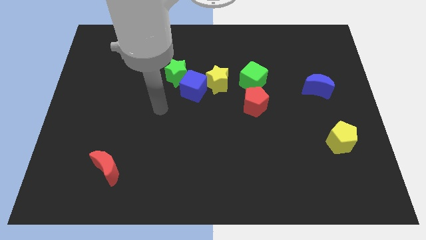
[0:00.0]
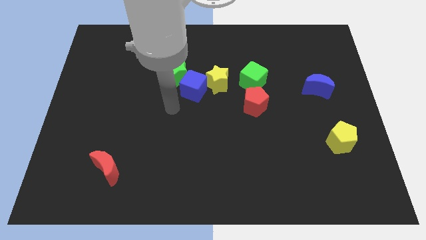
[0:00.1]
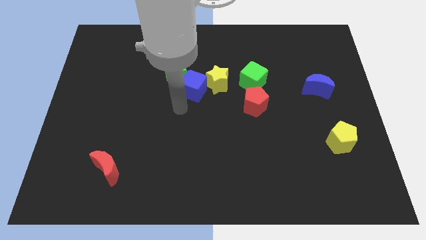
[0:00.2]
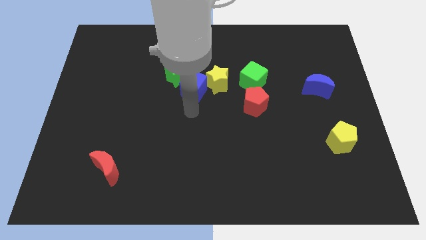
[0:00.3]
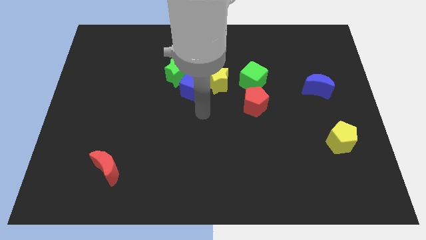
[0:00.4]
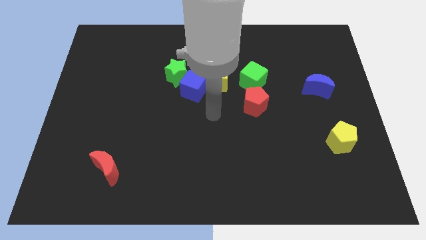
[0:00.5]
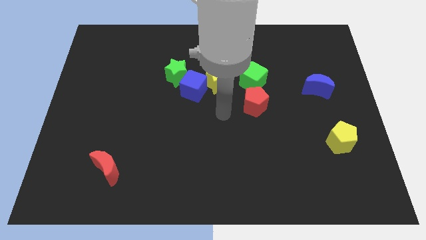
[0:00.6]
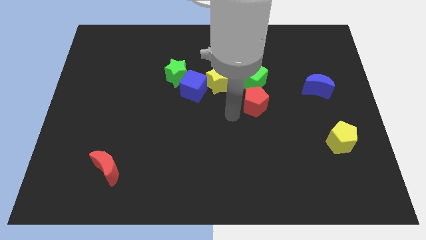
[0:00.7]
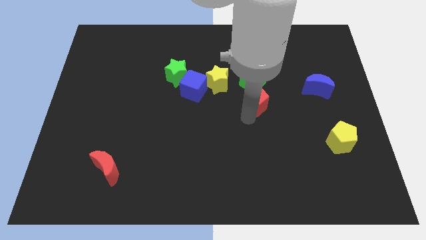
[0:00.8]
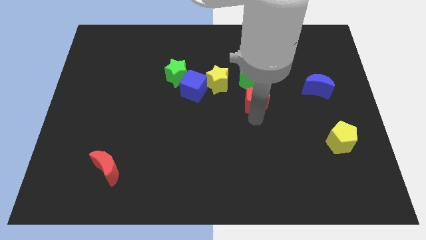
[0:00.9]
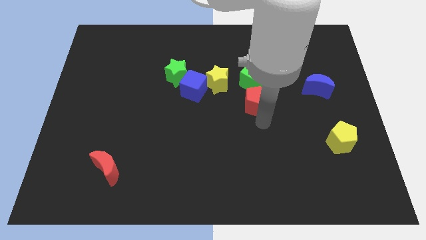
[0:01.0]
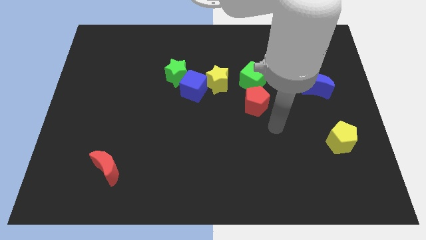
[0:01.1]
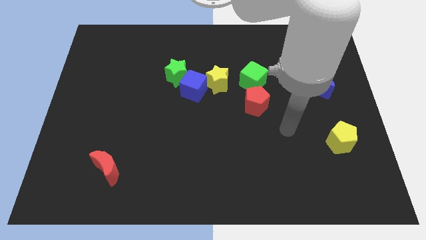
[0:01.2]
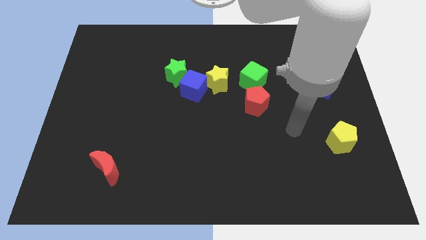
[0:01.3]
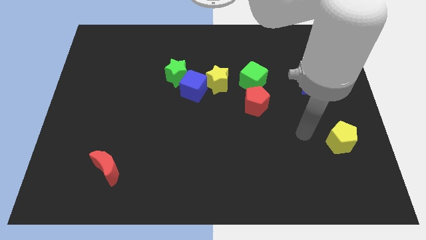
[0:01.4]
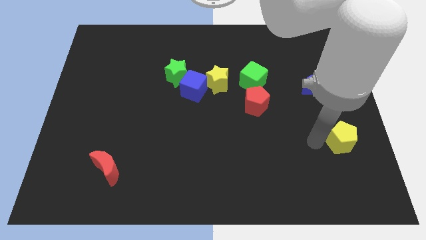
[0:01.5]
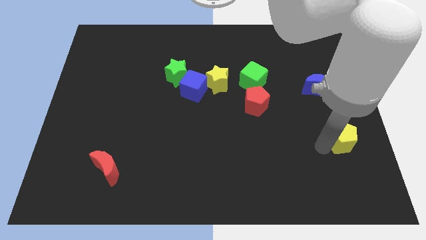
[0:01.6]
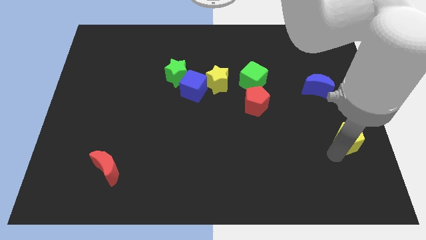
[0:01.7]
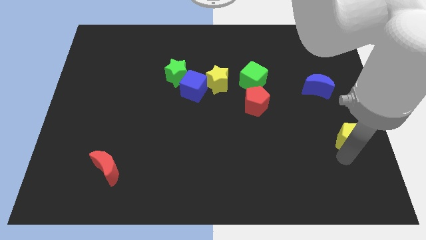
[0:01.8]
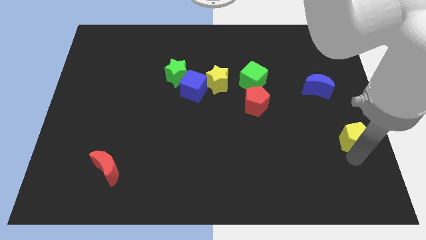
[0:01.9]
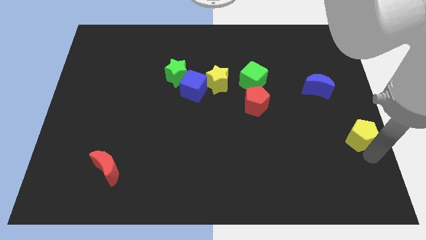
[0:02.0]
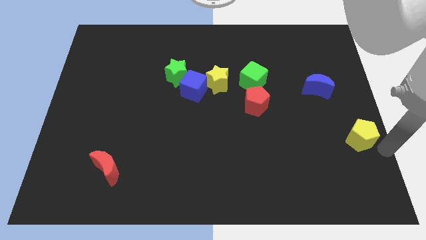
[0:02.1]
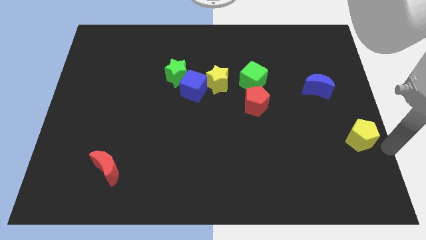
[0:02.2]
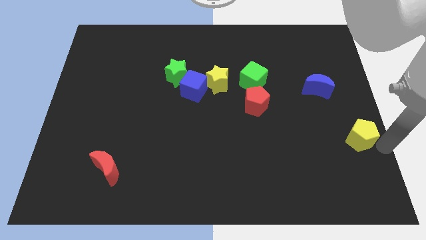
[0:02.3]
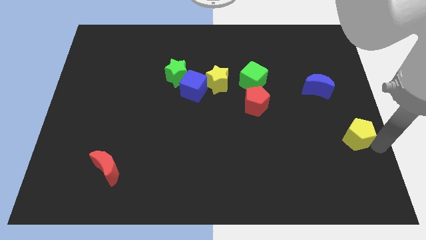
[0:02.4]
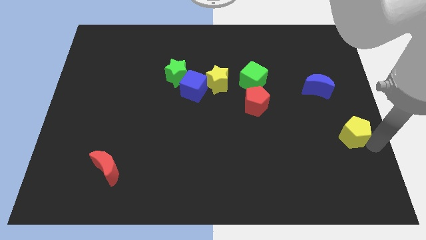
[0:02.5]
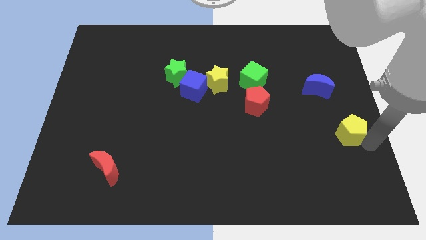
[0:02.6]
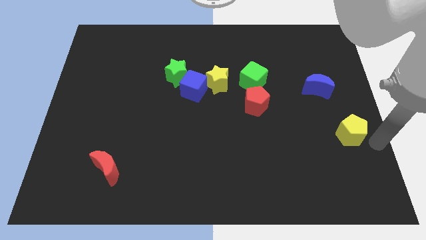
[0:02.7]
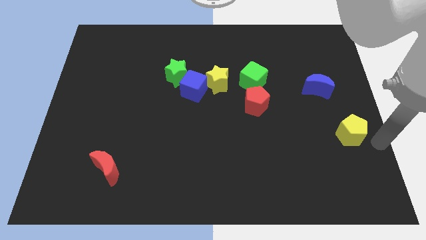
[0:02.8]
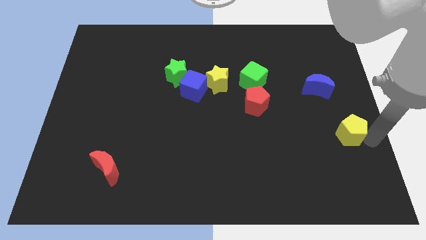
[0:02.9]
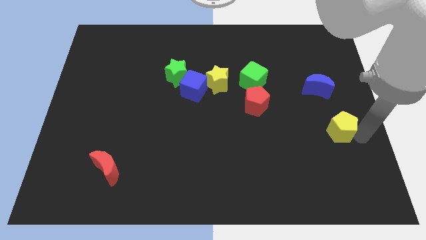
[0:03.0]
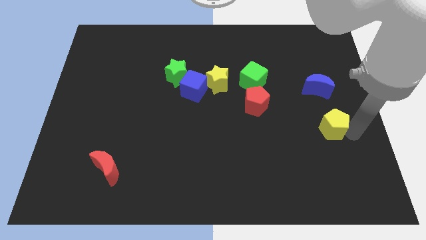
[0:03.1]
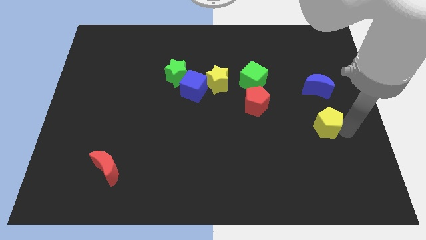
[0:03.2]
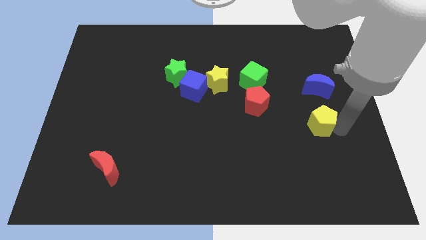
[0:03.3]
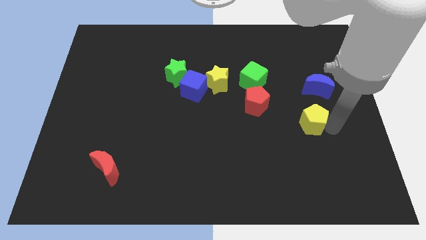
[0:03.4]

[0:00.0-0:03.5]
slightly slide the yellow pentagon up and to the left diagonally

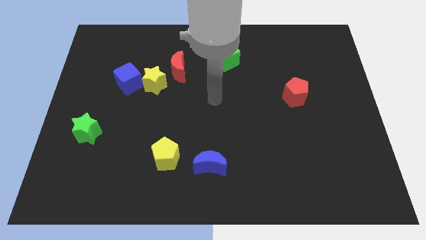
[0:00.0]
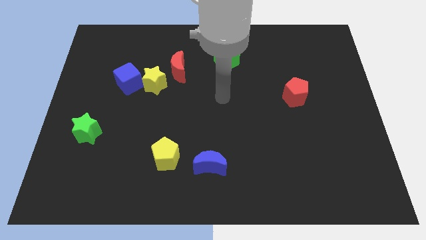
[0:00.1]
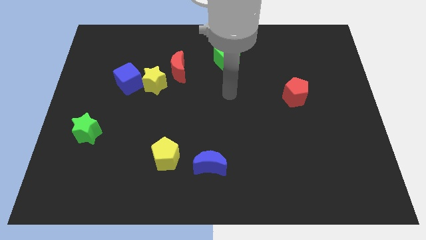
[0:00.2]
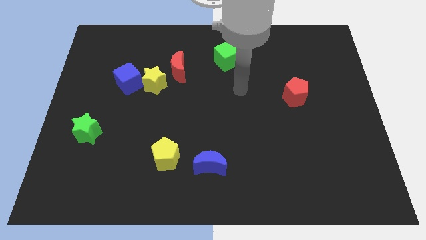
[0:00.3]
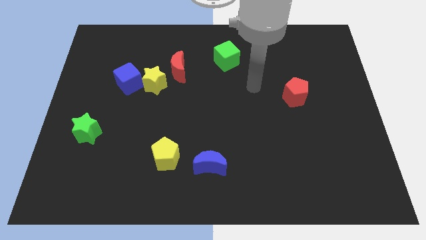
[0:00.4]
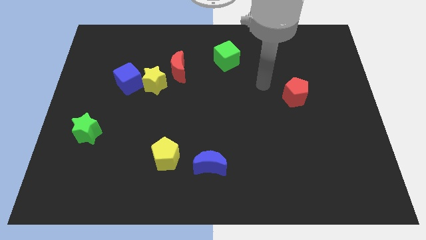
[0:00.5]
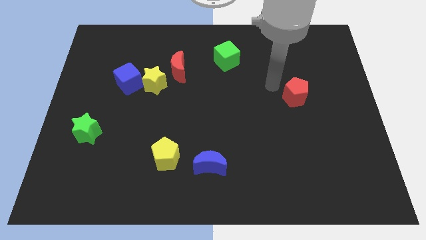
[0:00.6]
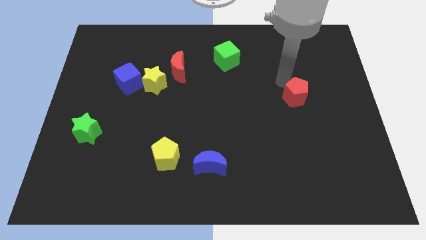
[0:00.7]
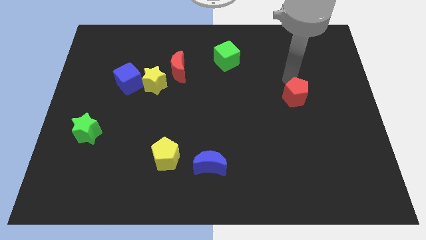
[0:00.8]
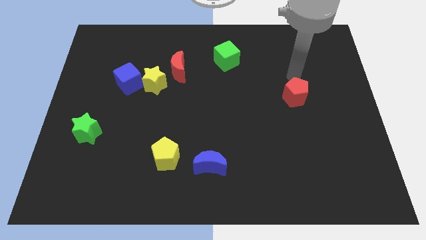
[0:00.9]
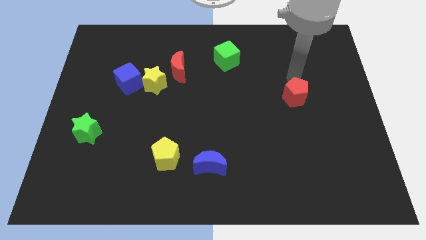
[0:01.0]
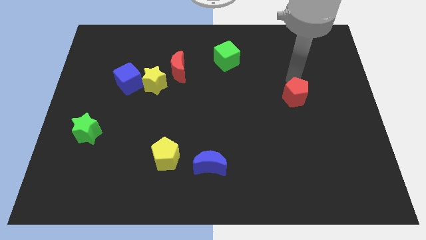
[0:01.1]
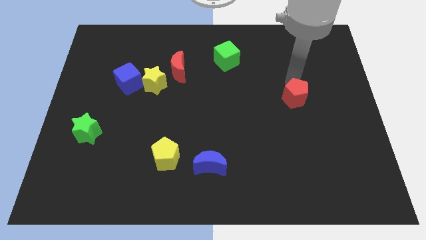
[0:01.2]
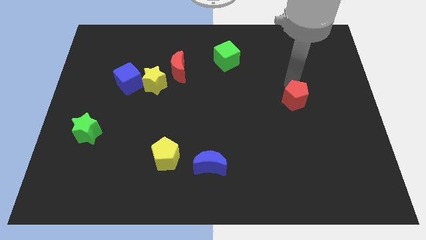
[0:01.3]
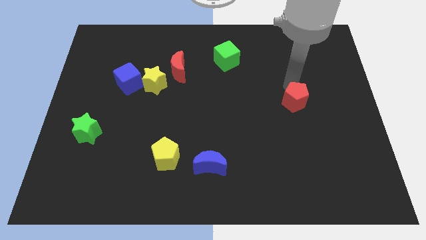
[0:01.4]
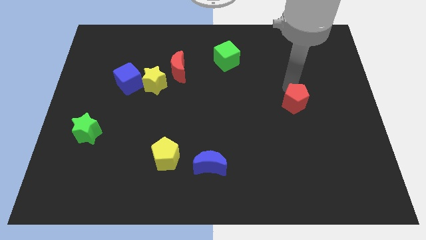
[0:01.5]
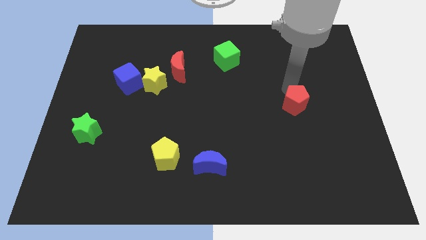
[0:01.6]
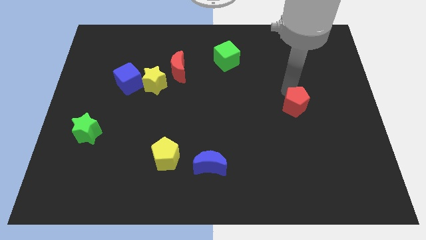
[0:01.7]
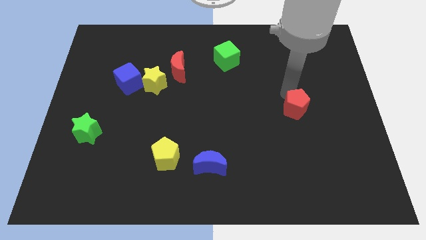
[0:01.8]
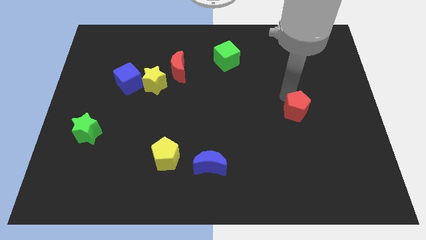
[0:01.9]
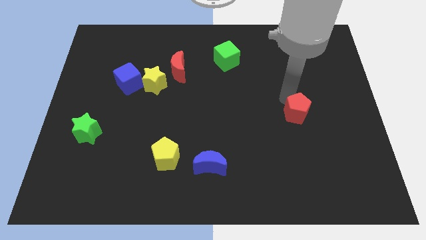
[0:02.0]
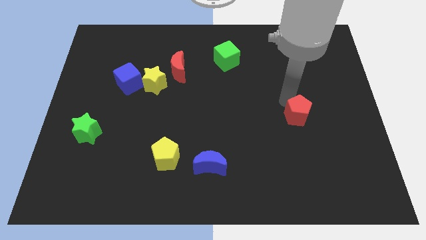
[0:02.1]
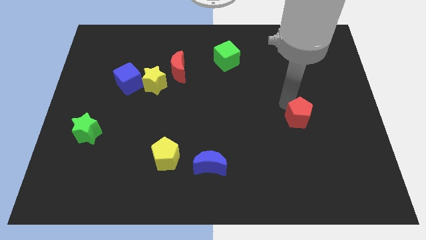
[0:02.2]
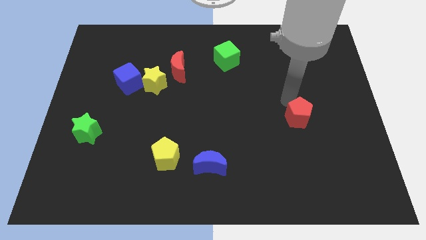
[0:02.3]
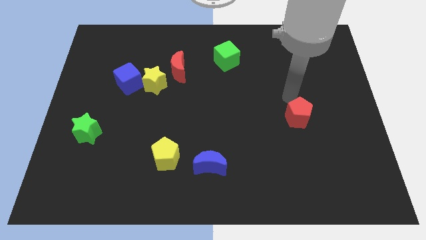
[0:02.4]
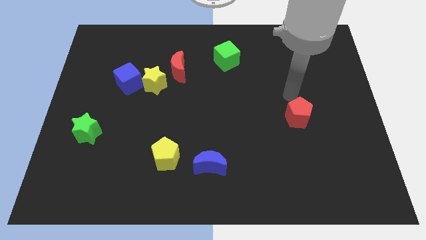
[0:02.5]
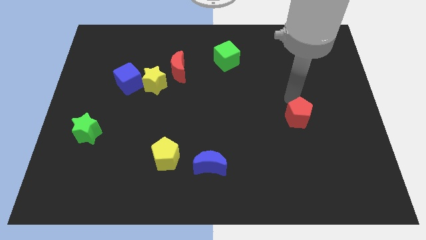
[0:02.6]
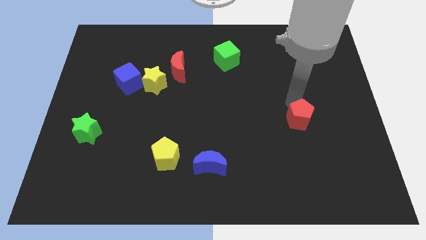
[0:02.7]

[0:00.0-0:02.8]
slightly slide the red pentagon downwards

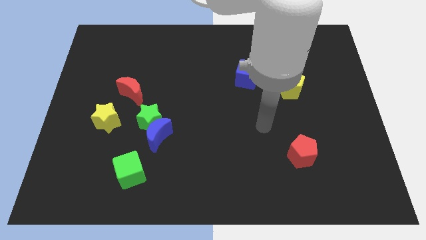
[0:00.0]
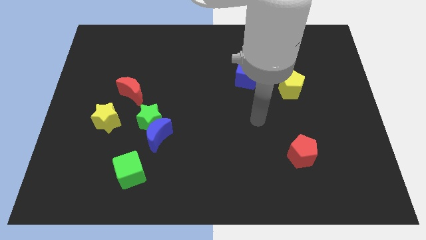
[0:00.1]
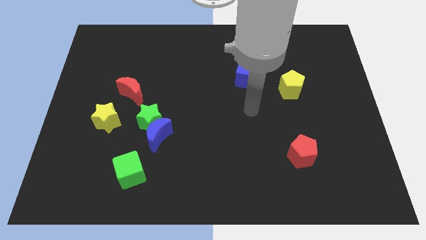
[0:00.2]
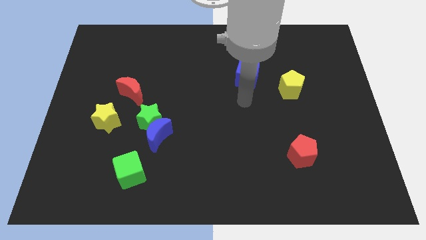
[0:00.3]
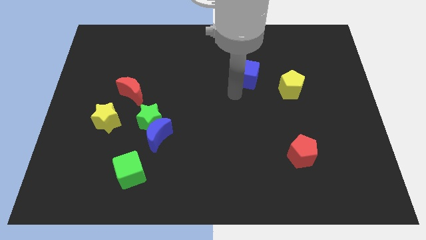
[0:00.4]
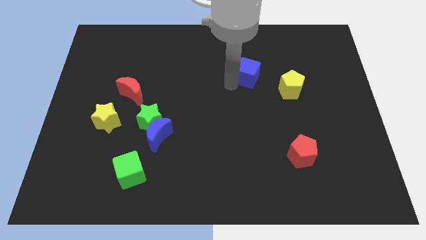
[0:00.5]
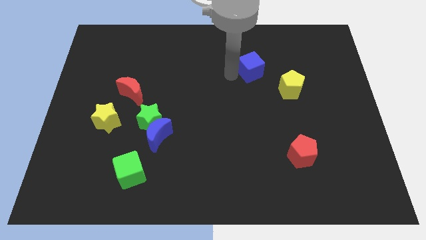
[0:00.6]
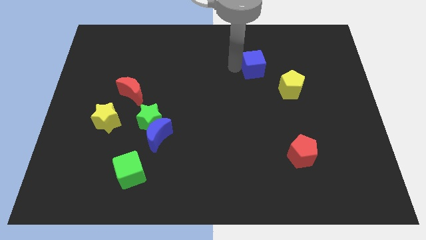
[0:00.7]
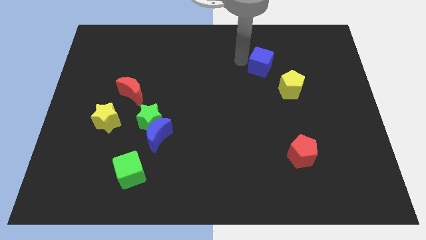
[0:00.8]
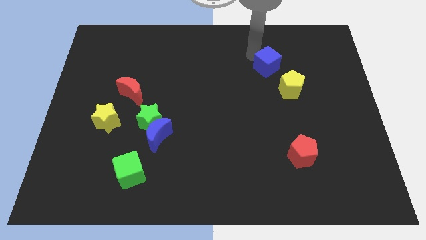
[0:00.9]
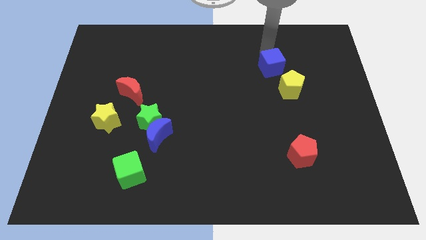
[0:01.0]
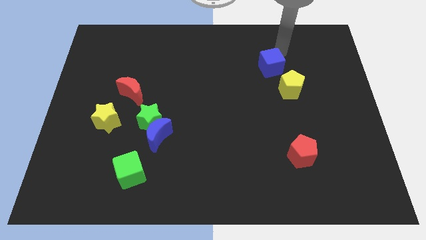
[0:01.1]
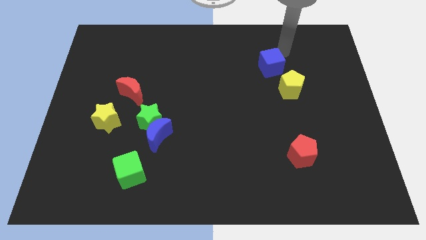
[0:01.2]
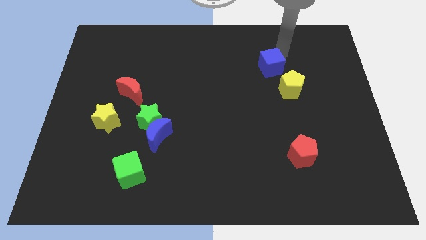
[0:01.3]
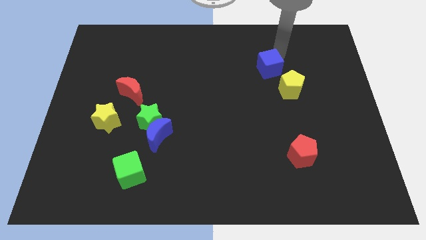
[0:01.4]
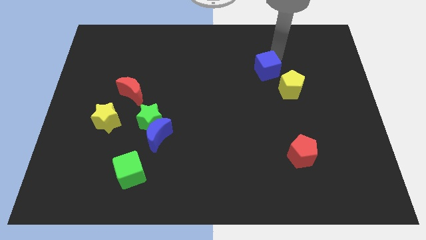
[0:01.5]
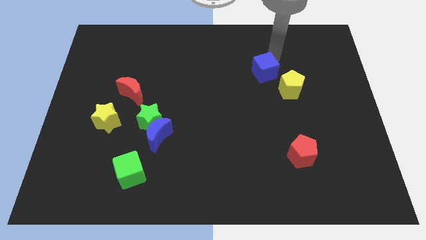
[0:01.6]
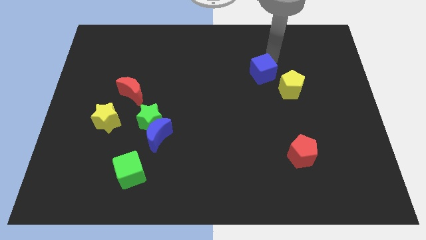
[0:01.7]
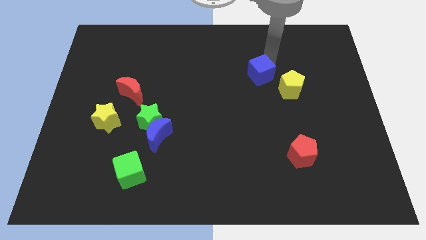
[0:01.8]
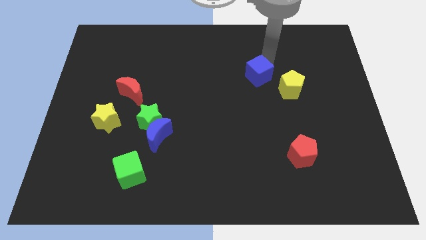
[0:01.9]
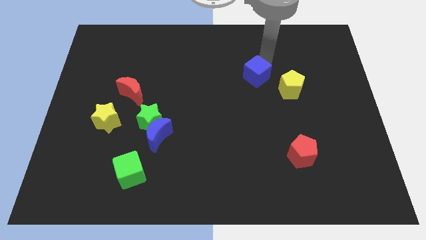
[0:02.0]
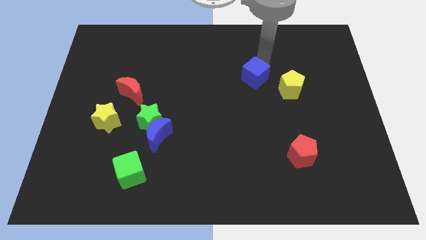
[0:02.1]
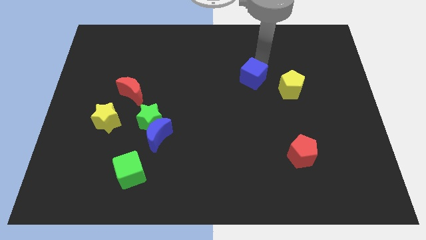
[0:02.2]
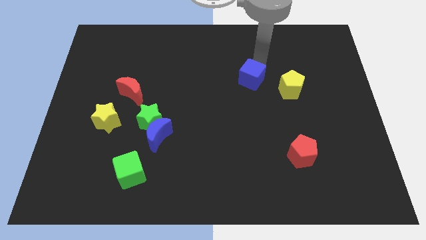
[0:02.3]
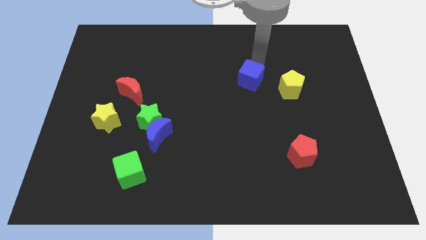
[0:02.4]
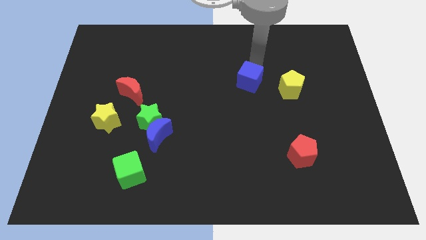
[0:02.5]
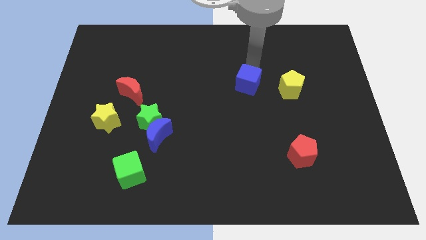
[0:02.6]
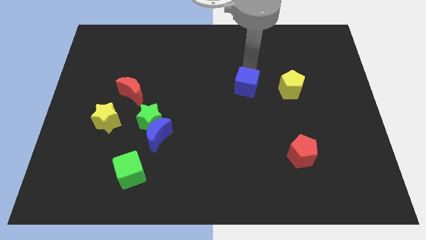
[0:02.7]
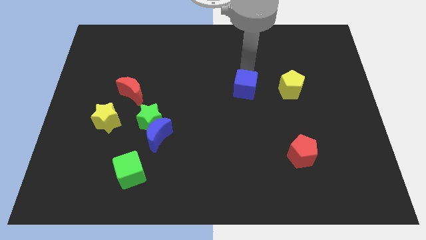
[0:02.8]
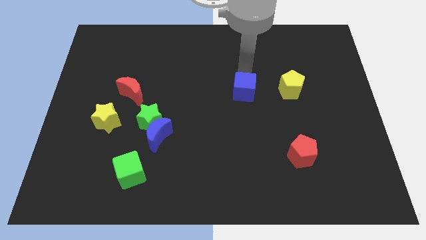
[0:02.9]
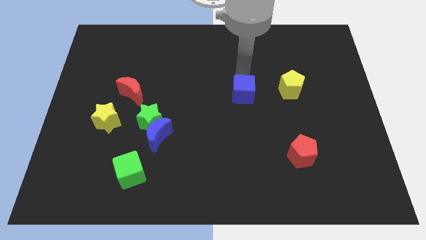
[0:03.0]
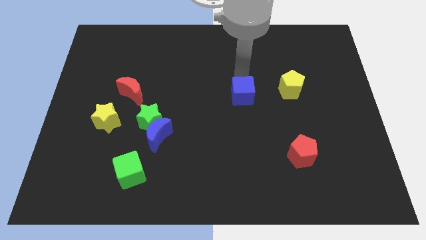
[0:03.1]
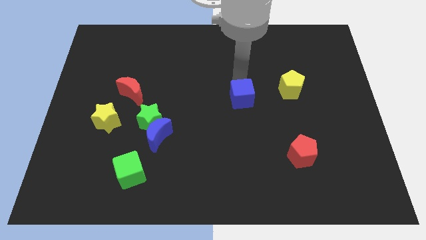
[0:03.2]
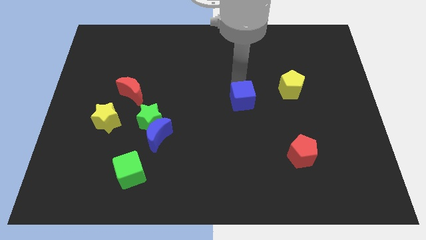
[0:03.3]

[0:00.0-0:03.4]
move the blue cube slightly downwards
